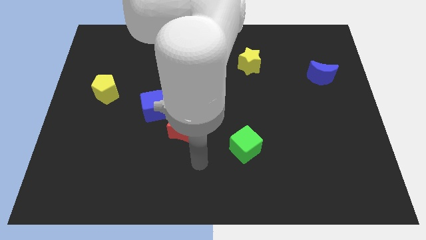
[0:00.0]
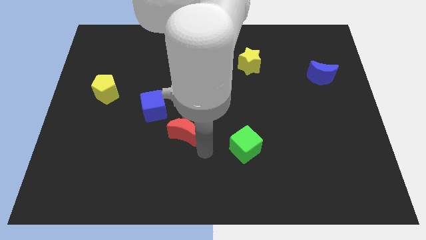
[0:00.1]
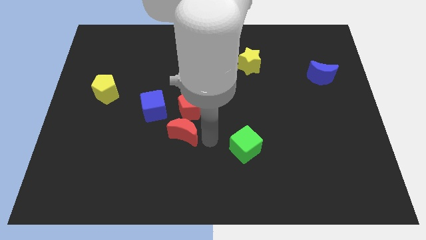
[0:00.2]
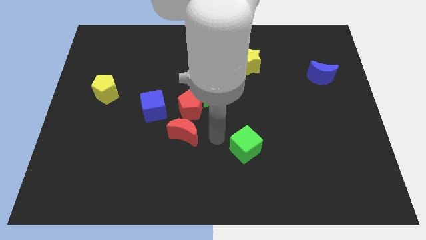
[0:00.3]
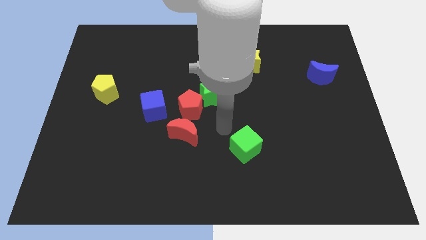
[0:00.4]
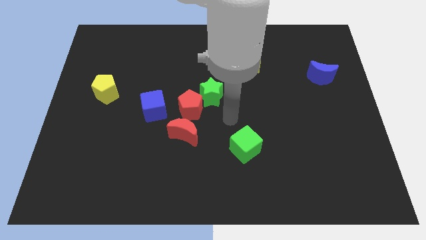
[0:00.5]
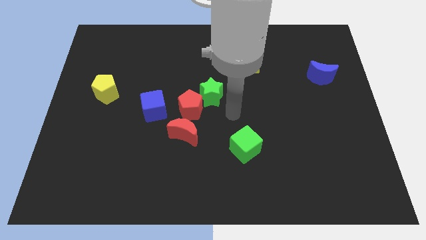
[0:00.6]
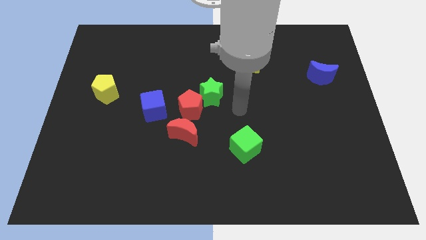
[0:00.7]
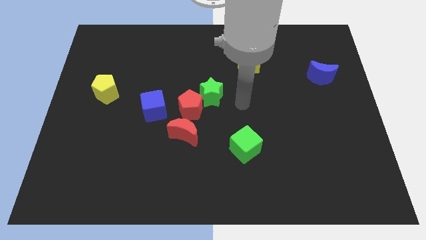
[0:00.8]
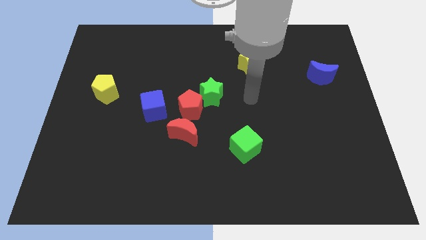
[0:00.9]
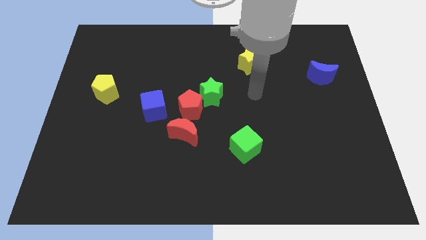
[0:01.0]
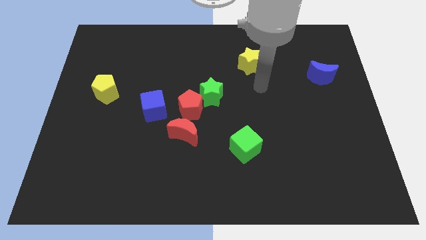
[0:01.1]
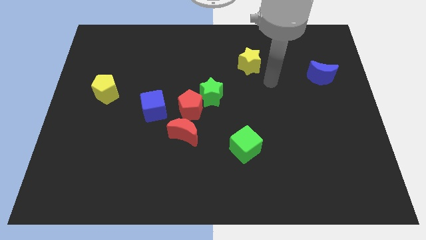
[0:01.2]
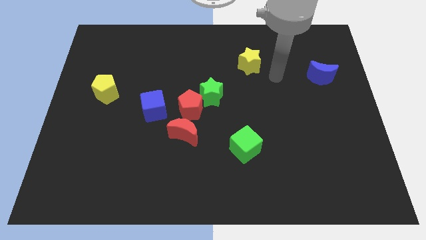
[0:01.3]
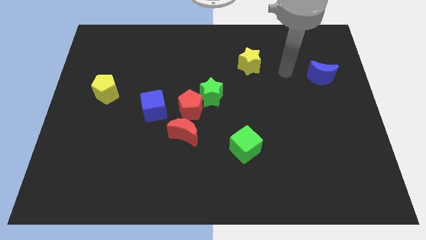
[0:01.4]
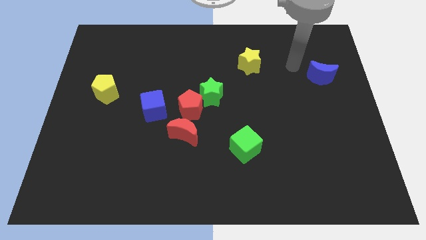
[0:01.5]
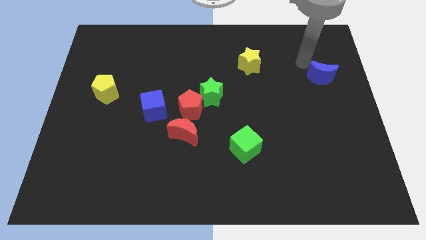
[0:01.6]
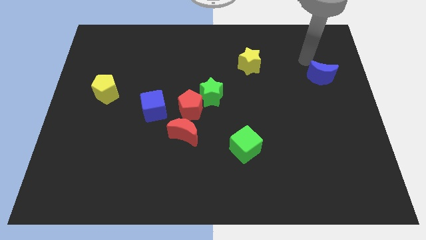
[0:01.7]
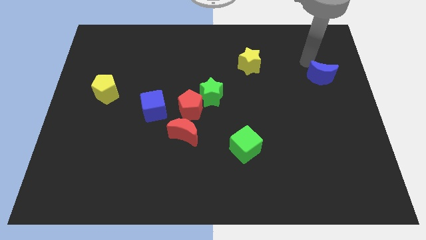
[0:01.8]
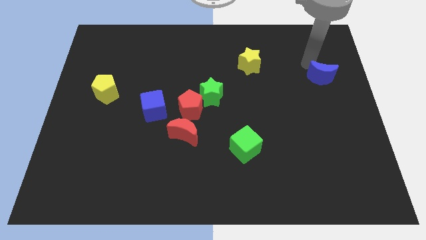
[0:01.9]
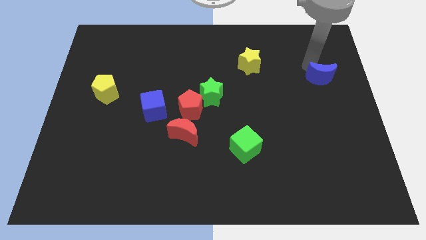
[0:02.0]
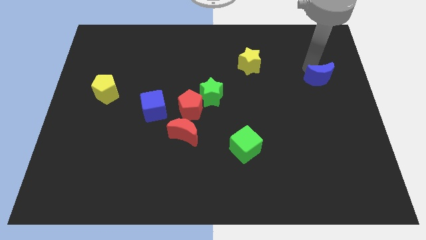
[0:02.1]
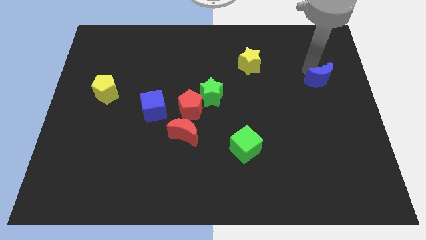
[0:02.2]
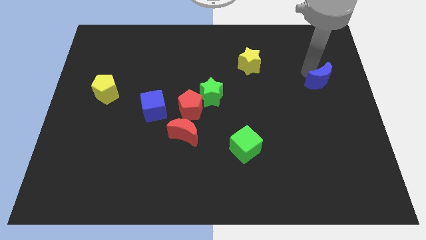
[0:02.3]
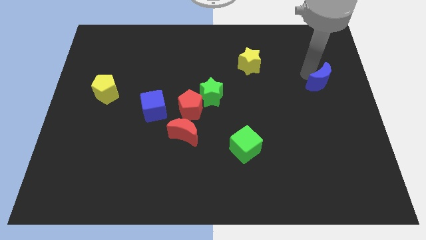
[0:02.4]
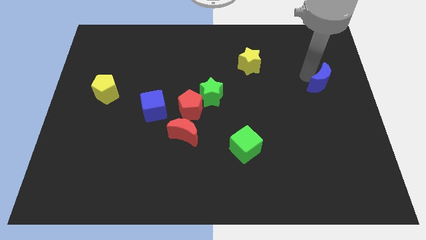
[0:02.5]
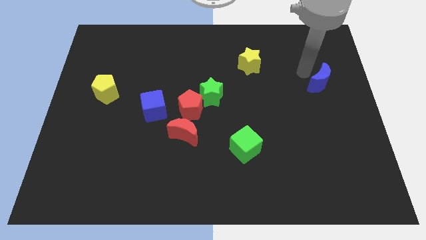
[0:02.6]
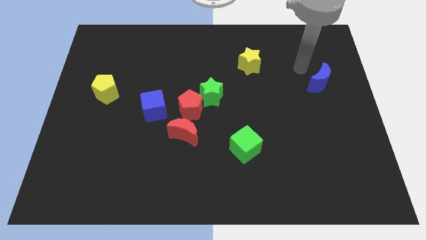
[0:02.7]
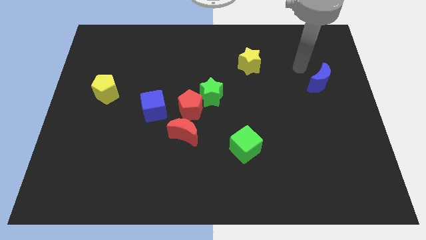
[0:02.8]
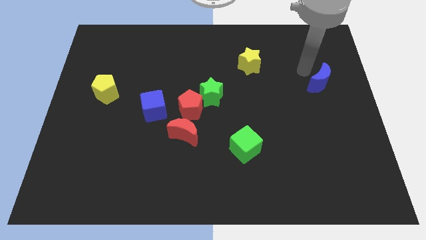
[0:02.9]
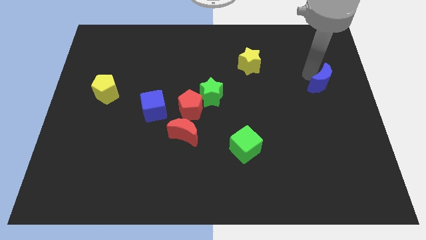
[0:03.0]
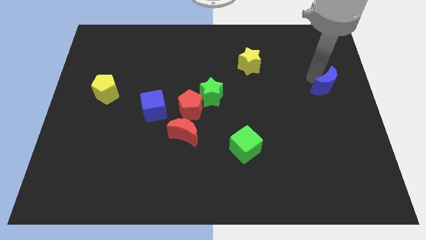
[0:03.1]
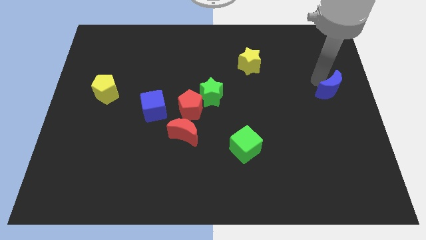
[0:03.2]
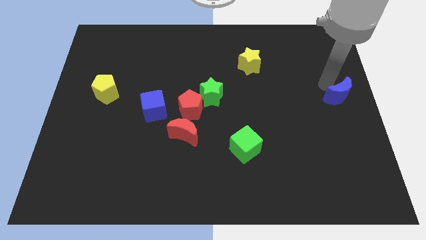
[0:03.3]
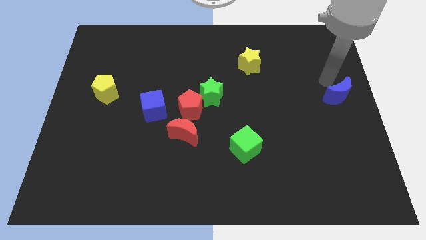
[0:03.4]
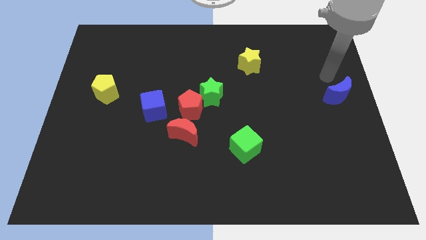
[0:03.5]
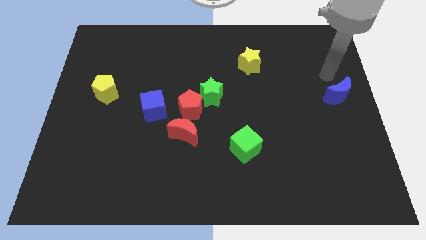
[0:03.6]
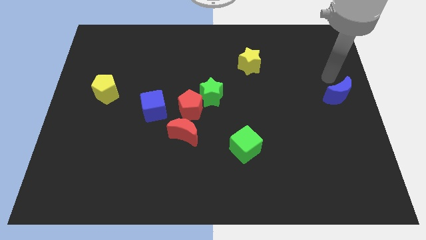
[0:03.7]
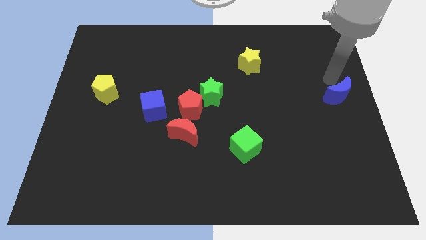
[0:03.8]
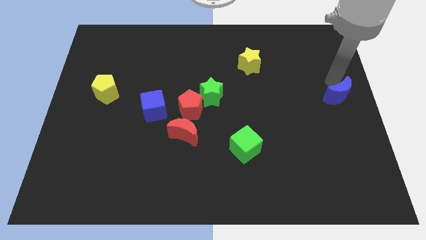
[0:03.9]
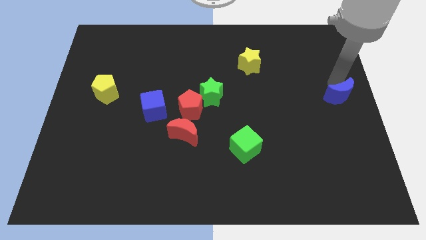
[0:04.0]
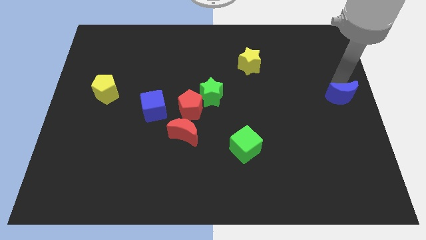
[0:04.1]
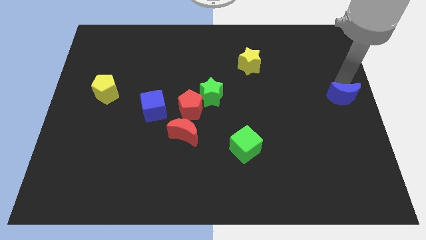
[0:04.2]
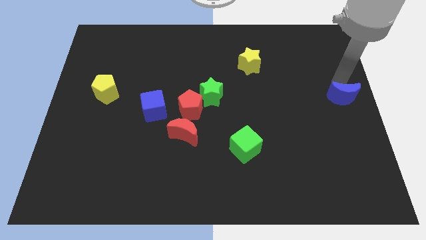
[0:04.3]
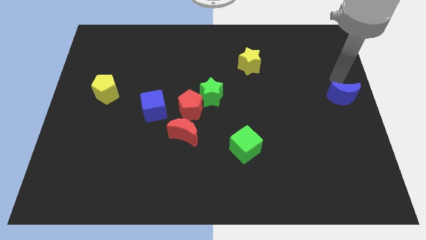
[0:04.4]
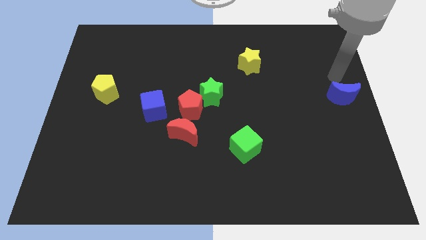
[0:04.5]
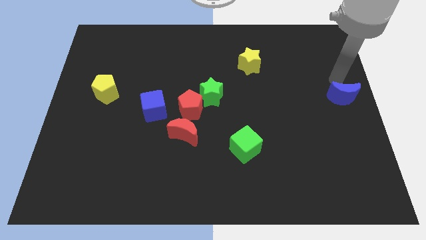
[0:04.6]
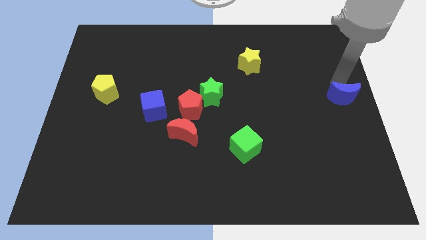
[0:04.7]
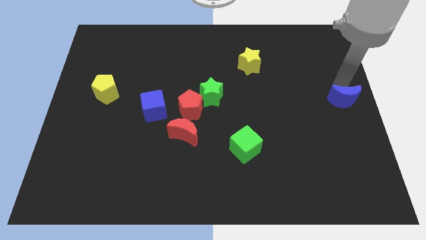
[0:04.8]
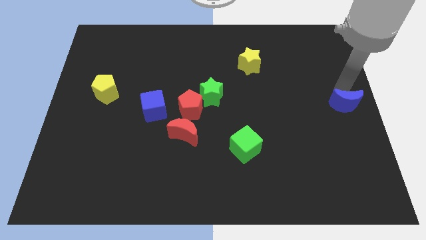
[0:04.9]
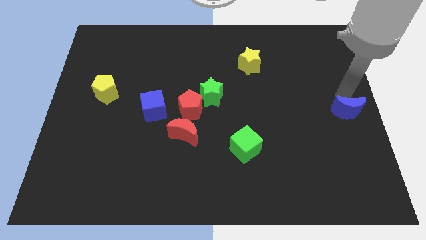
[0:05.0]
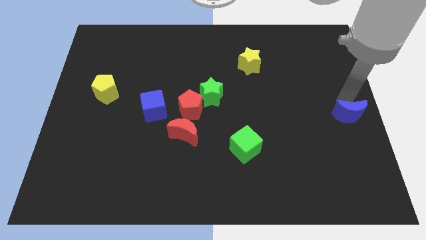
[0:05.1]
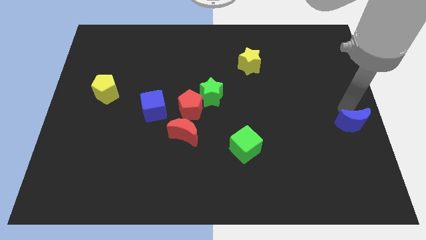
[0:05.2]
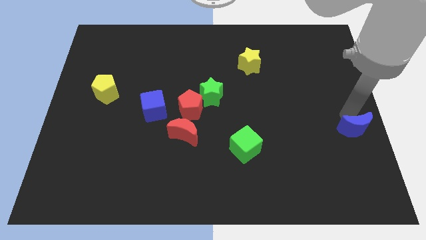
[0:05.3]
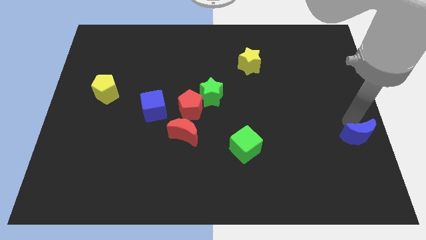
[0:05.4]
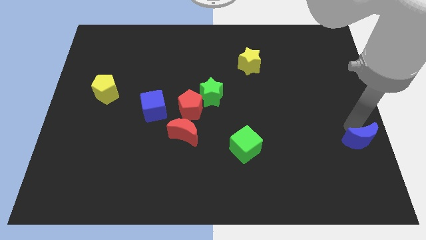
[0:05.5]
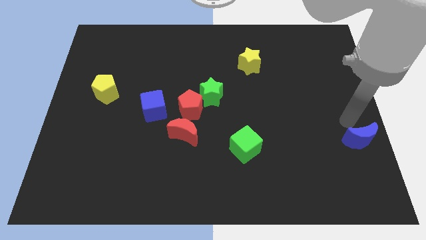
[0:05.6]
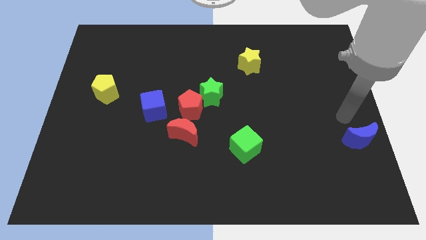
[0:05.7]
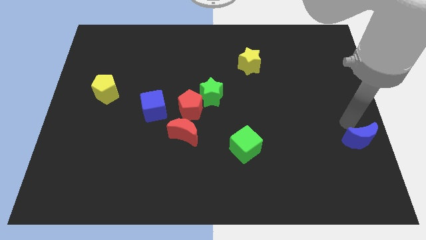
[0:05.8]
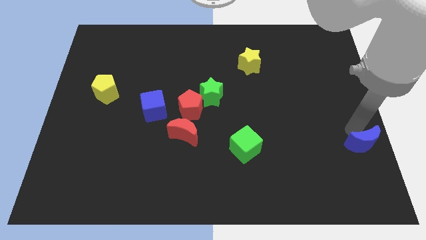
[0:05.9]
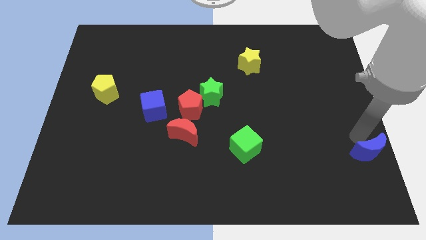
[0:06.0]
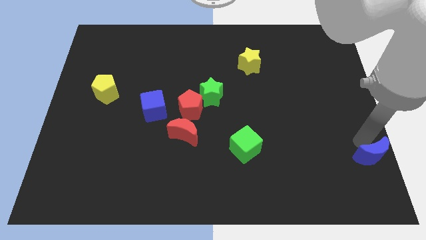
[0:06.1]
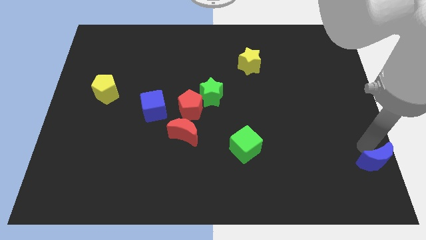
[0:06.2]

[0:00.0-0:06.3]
slide the blue moon to the lower right corner
